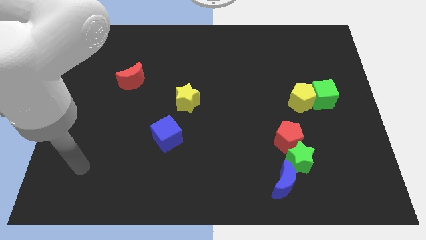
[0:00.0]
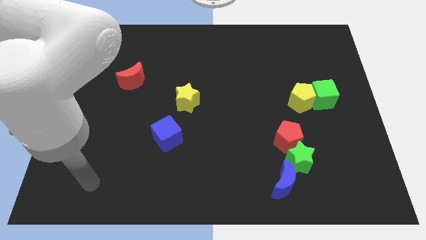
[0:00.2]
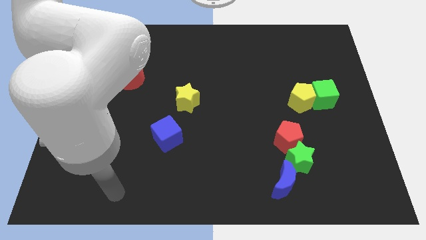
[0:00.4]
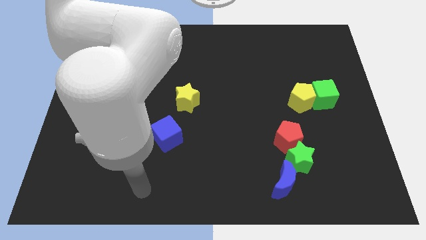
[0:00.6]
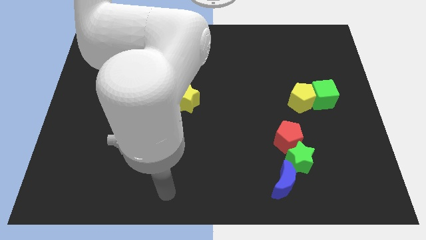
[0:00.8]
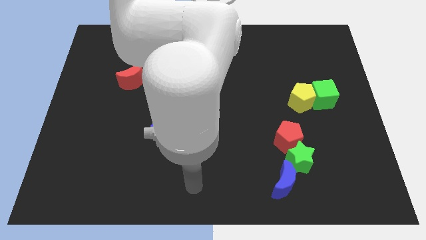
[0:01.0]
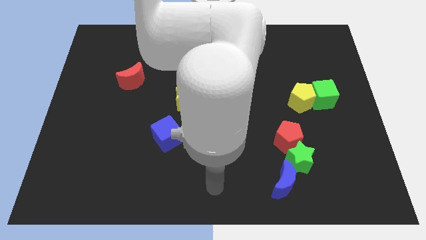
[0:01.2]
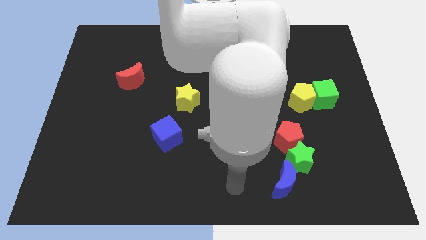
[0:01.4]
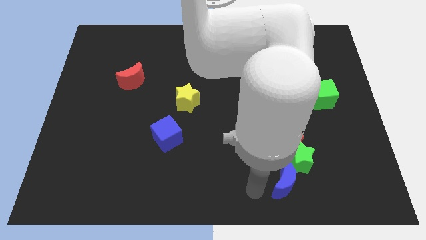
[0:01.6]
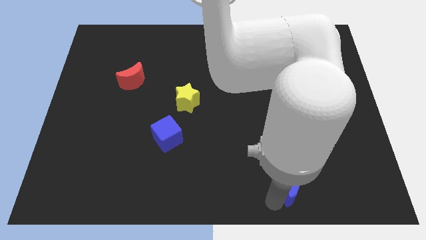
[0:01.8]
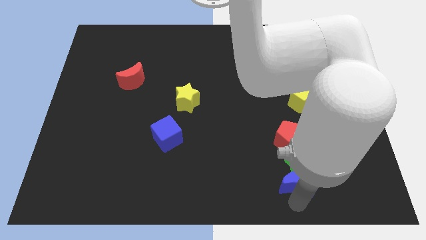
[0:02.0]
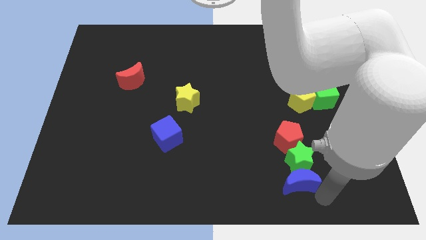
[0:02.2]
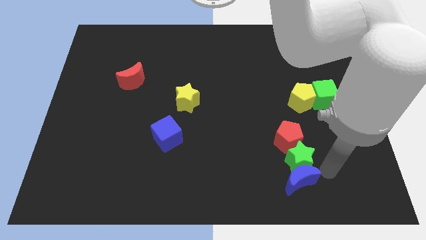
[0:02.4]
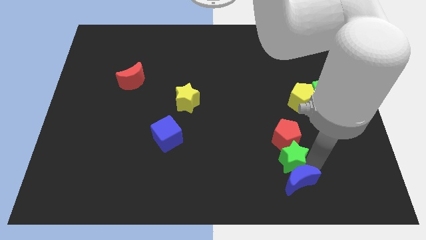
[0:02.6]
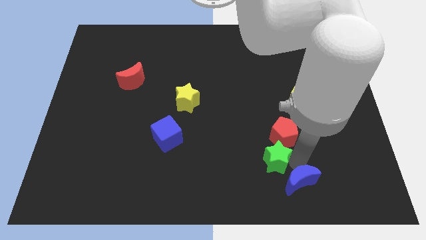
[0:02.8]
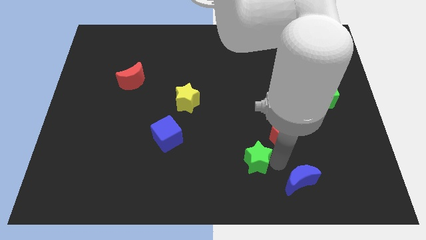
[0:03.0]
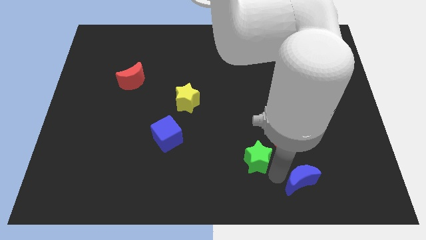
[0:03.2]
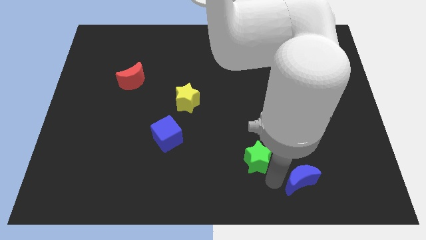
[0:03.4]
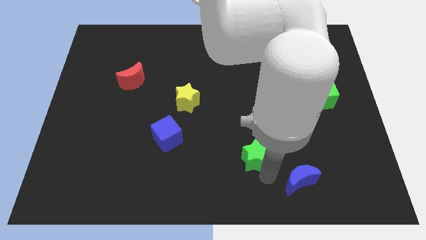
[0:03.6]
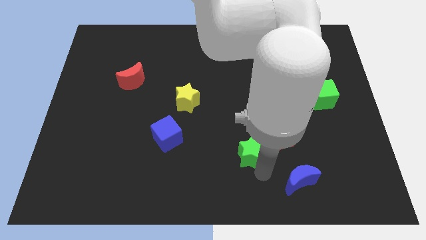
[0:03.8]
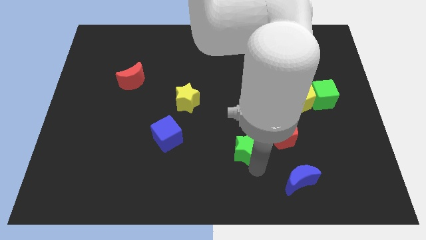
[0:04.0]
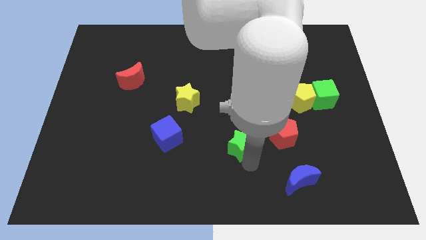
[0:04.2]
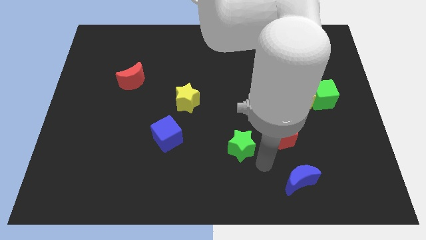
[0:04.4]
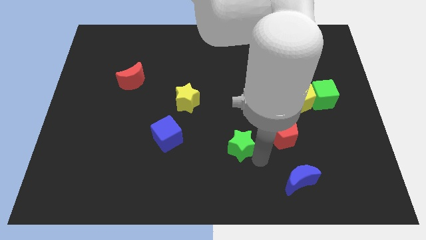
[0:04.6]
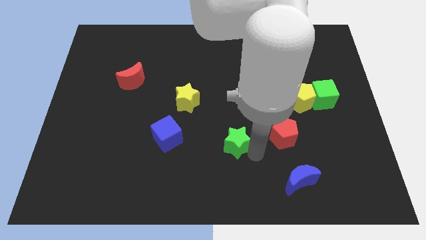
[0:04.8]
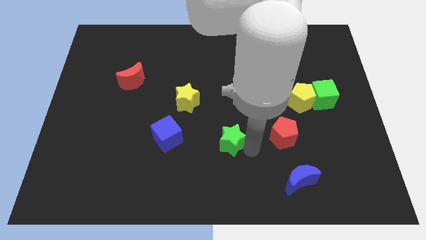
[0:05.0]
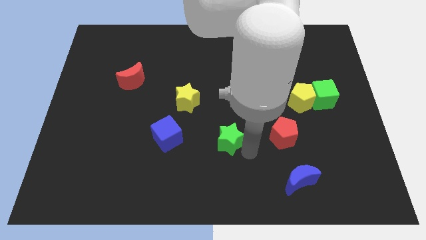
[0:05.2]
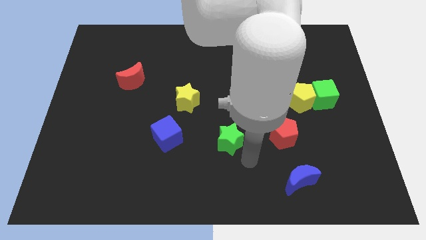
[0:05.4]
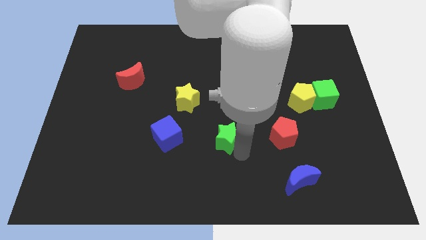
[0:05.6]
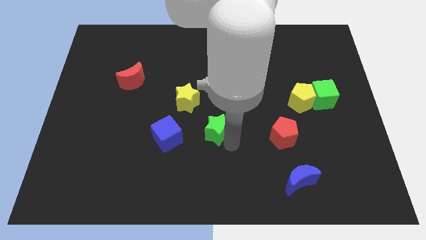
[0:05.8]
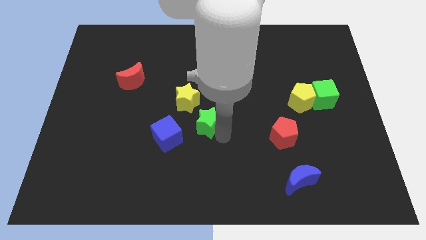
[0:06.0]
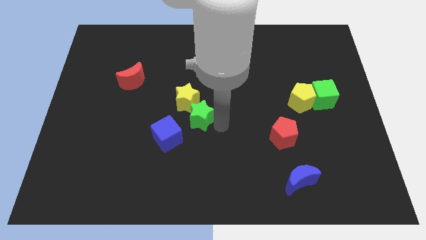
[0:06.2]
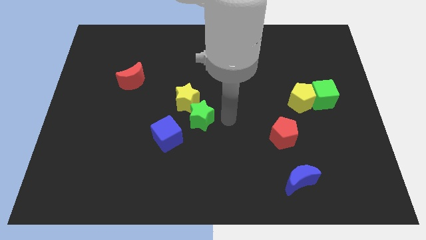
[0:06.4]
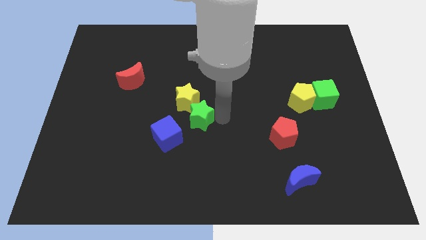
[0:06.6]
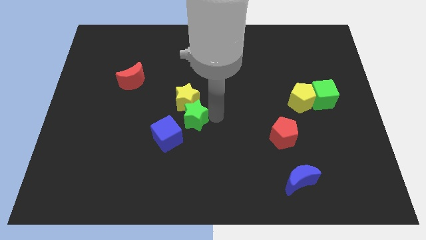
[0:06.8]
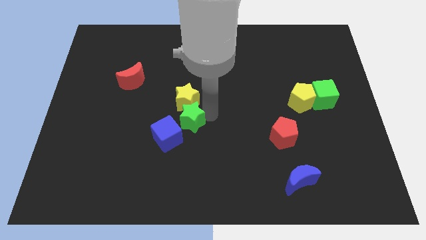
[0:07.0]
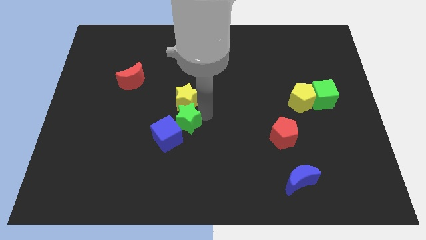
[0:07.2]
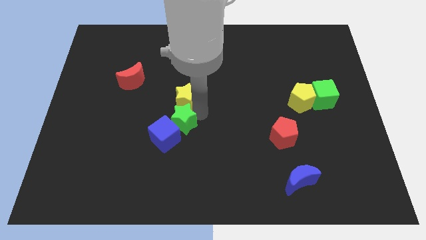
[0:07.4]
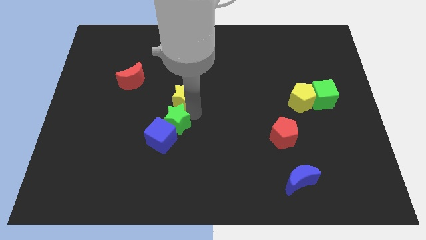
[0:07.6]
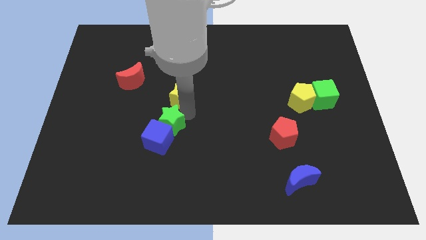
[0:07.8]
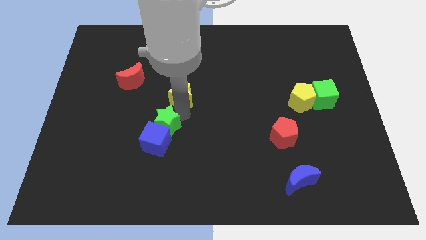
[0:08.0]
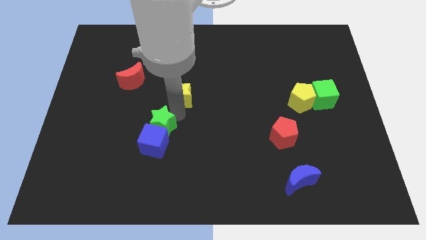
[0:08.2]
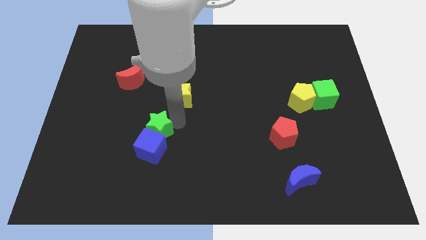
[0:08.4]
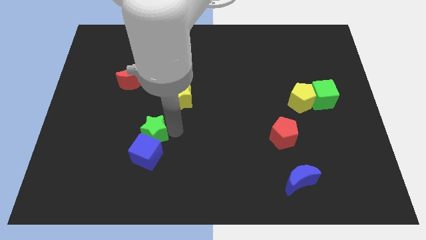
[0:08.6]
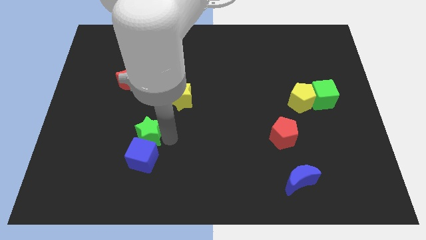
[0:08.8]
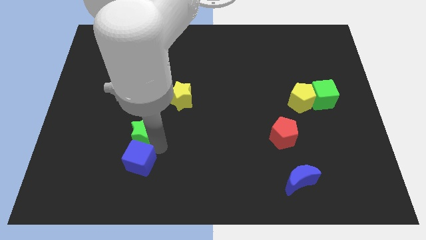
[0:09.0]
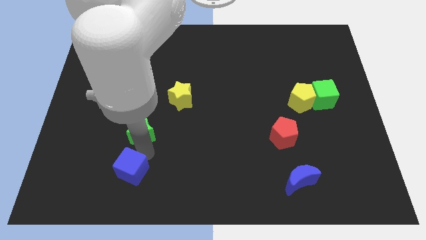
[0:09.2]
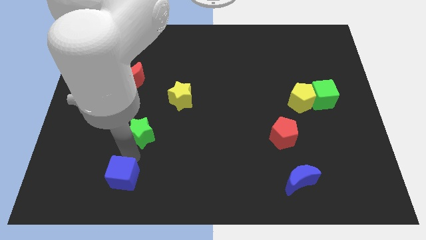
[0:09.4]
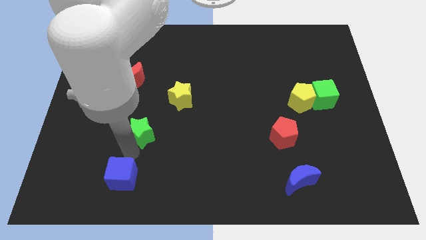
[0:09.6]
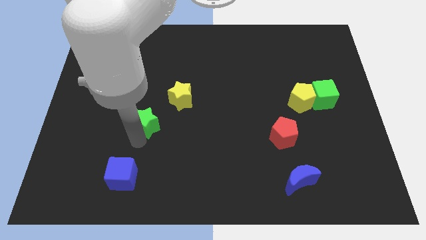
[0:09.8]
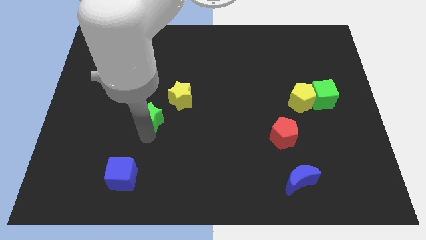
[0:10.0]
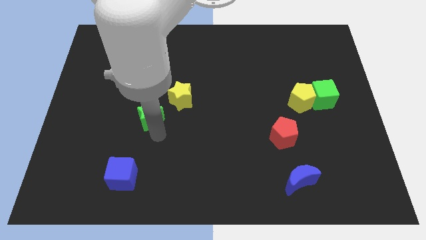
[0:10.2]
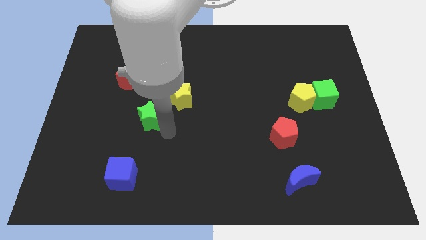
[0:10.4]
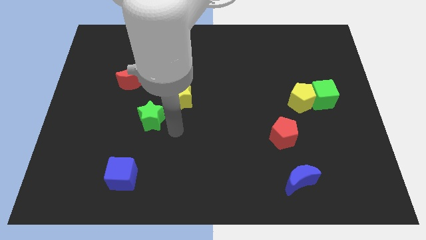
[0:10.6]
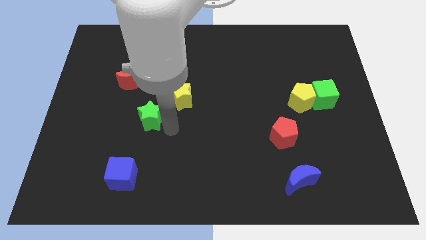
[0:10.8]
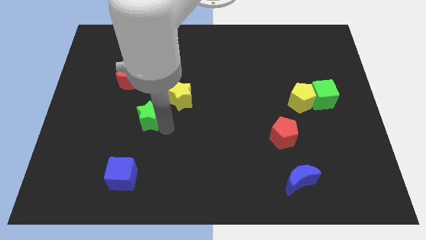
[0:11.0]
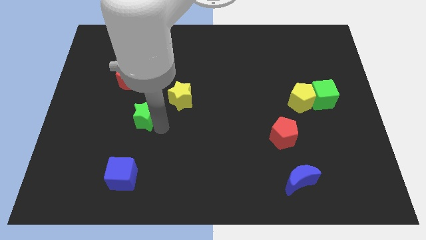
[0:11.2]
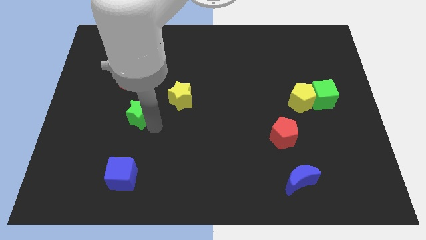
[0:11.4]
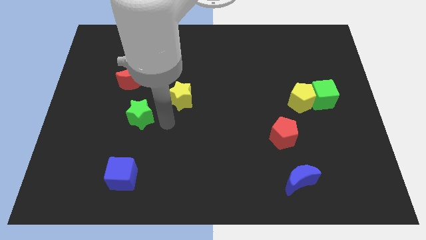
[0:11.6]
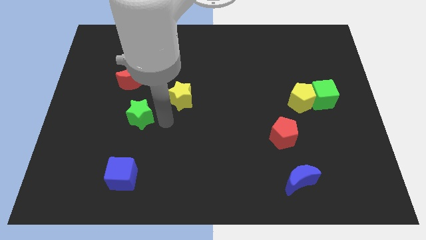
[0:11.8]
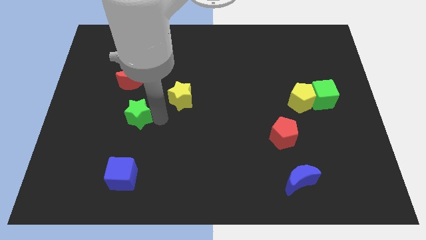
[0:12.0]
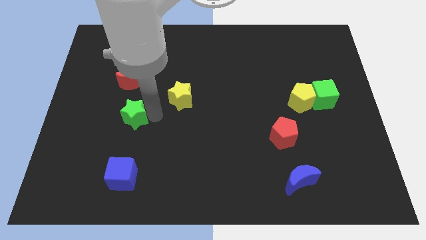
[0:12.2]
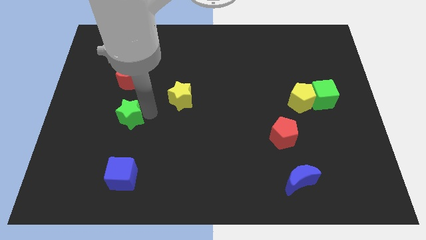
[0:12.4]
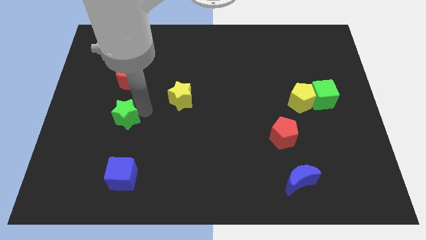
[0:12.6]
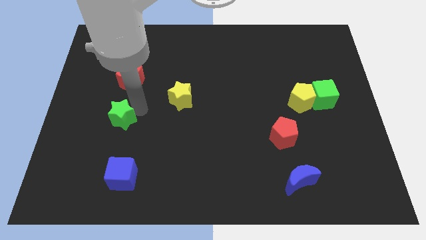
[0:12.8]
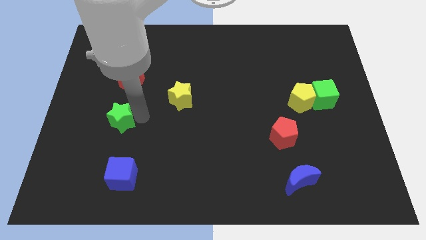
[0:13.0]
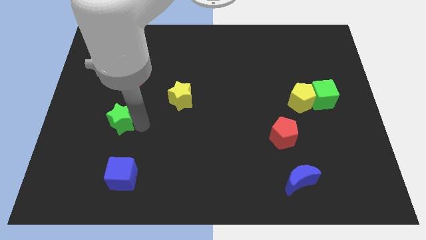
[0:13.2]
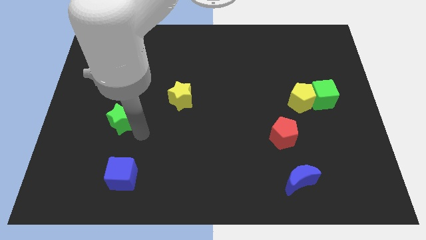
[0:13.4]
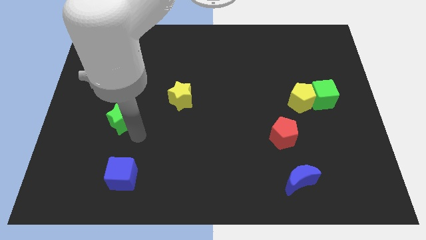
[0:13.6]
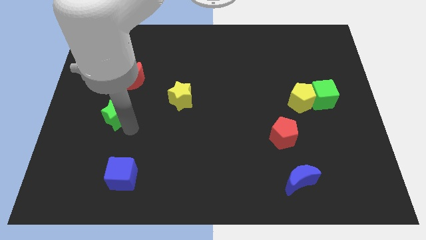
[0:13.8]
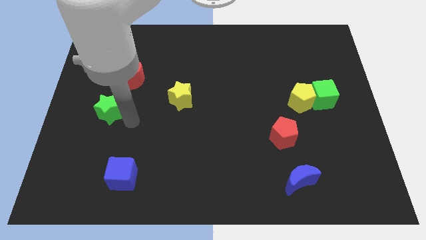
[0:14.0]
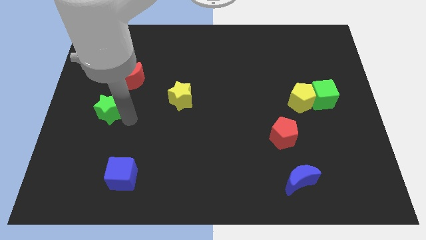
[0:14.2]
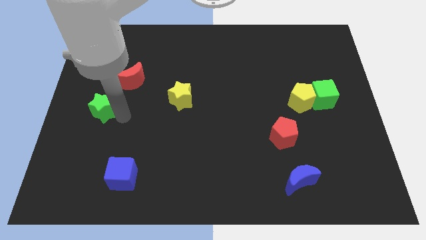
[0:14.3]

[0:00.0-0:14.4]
move the green star to the center left

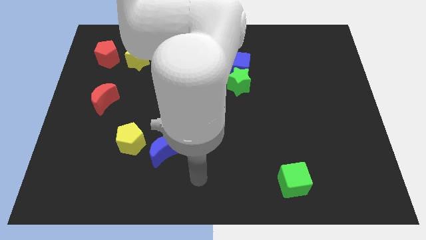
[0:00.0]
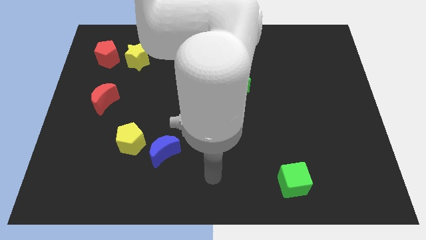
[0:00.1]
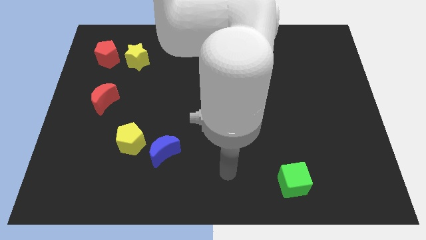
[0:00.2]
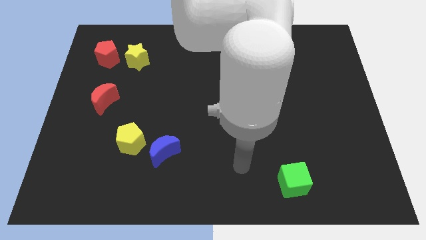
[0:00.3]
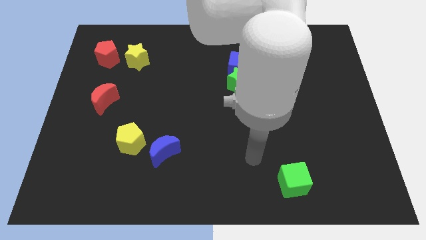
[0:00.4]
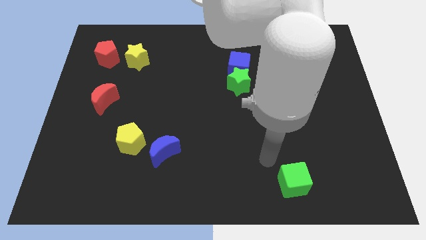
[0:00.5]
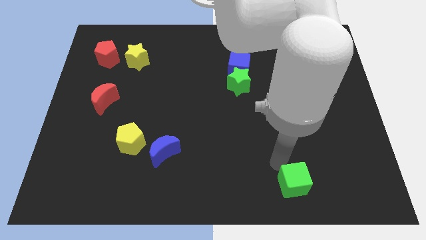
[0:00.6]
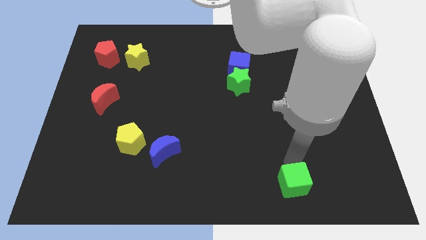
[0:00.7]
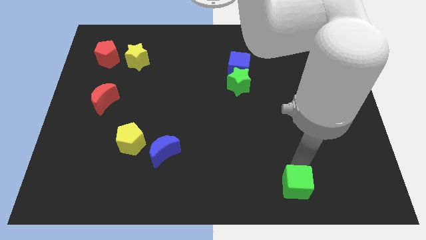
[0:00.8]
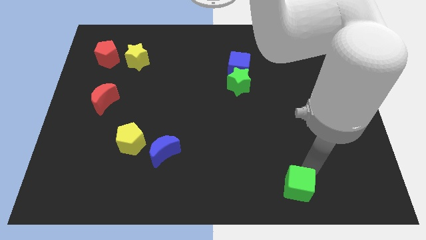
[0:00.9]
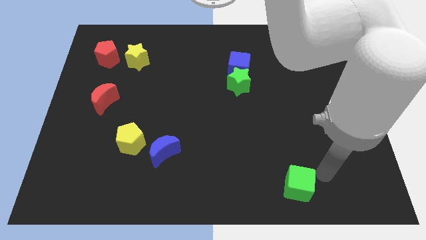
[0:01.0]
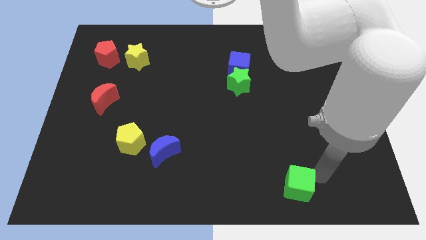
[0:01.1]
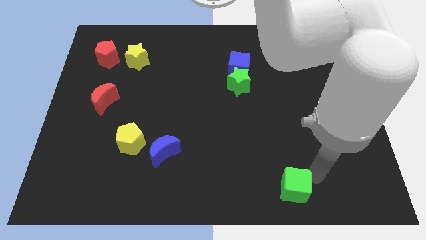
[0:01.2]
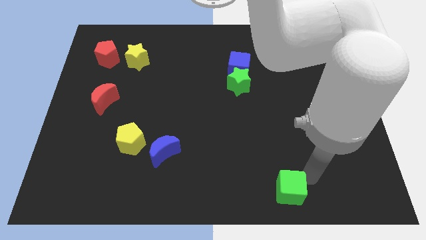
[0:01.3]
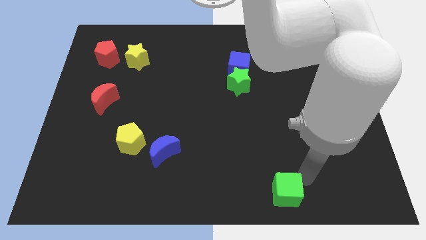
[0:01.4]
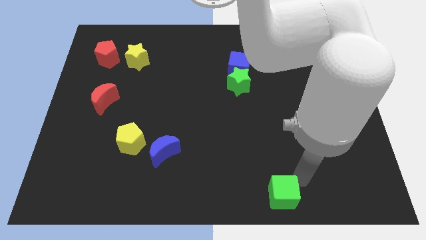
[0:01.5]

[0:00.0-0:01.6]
push the green cube to the bottom side
